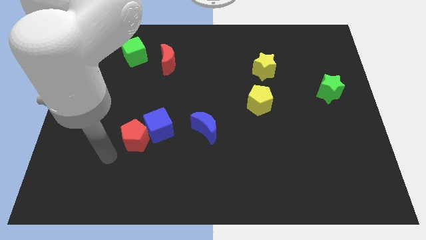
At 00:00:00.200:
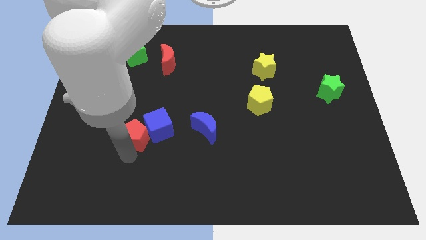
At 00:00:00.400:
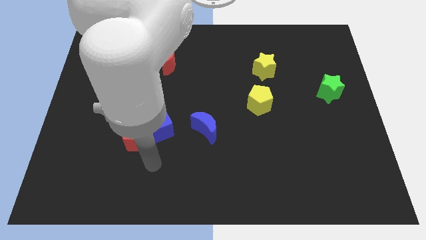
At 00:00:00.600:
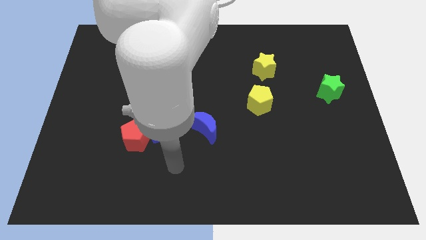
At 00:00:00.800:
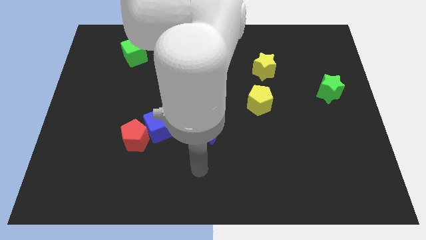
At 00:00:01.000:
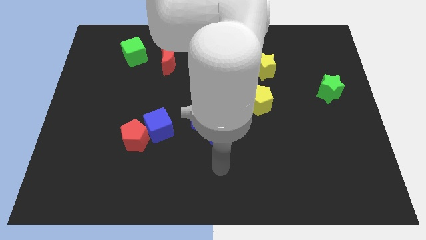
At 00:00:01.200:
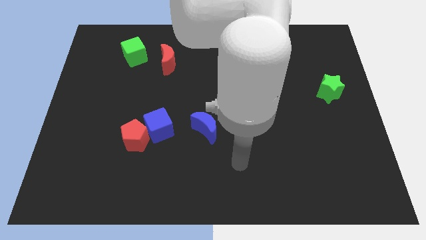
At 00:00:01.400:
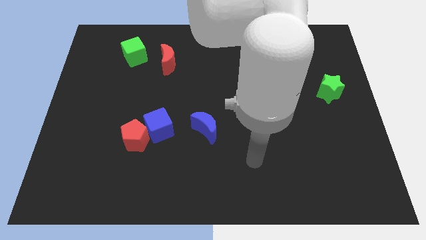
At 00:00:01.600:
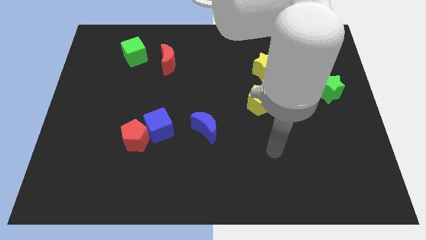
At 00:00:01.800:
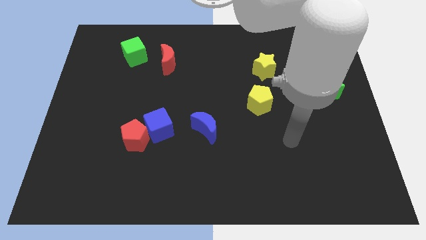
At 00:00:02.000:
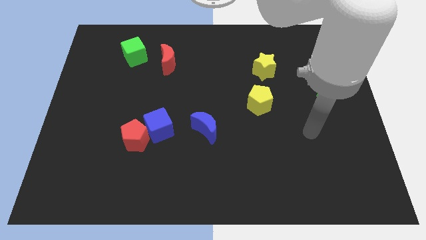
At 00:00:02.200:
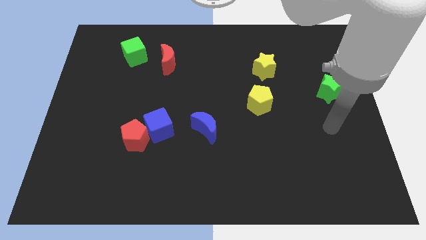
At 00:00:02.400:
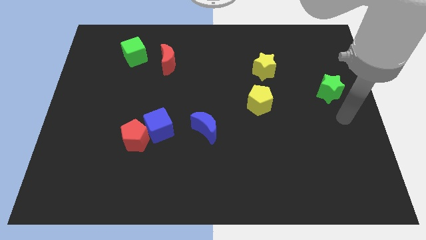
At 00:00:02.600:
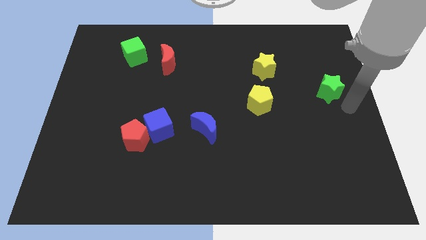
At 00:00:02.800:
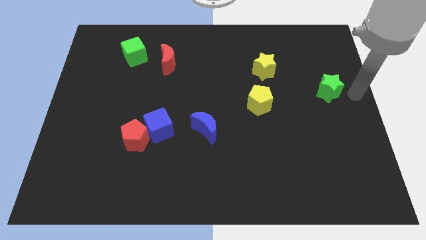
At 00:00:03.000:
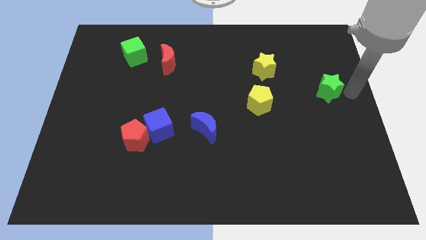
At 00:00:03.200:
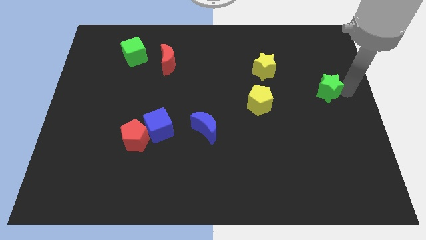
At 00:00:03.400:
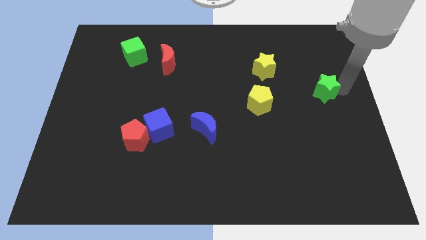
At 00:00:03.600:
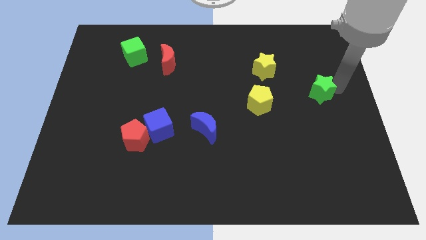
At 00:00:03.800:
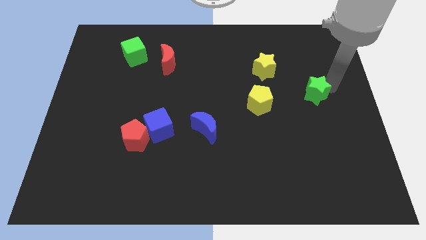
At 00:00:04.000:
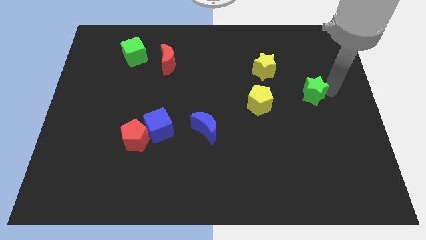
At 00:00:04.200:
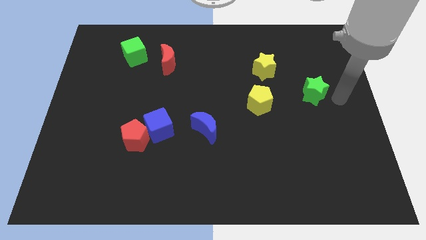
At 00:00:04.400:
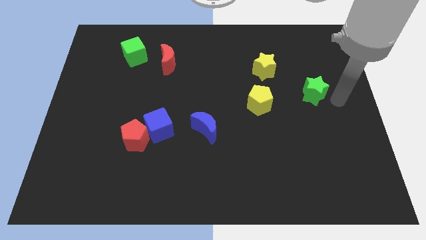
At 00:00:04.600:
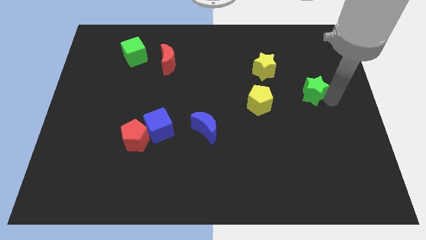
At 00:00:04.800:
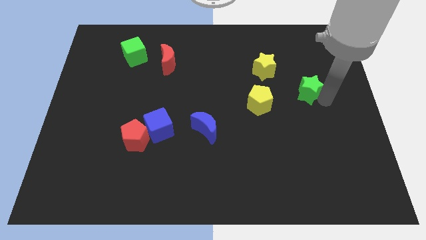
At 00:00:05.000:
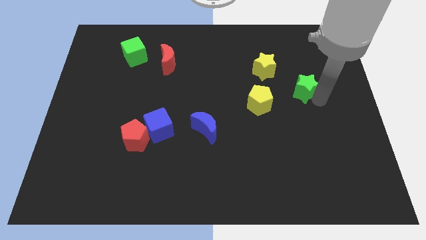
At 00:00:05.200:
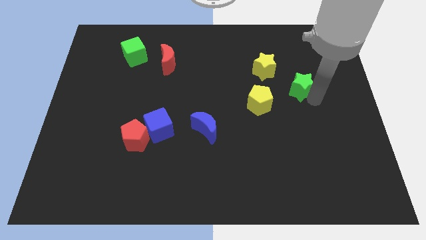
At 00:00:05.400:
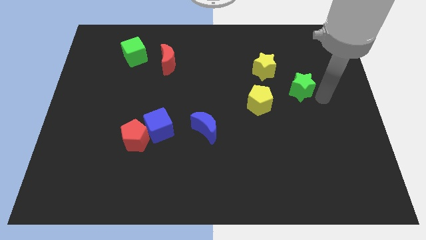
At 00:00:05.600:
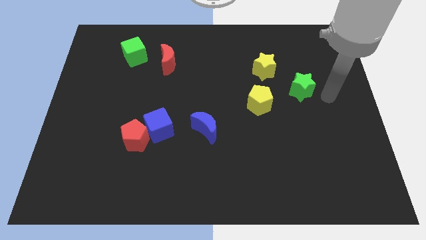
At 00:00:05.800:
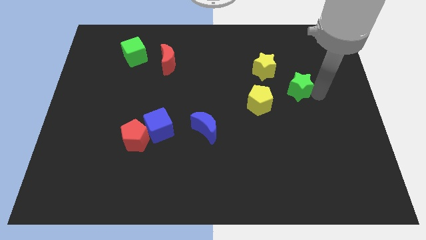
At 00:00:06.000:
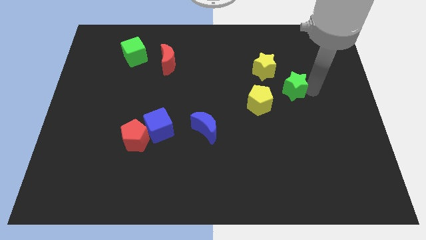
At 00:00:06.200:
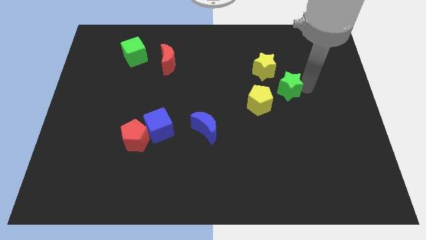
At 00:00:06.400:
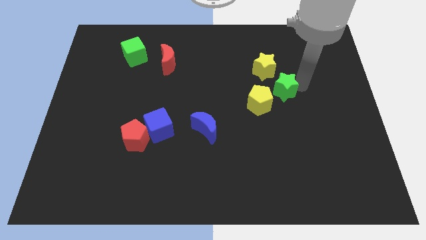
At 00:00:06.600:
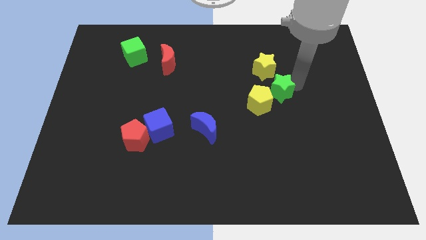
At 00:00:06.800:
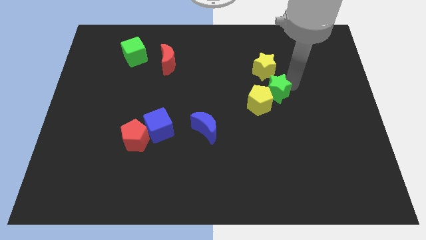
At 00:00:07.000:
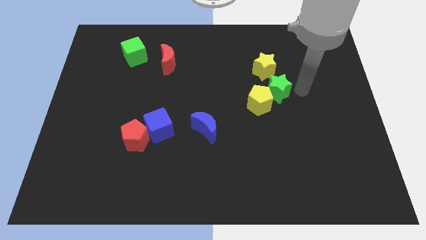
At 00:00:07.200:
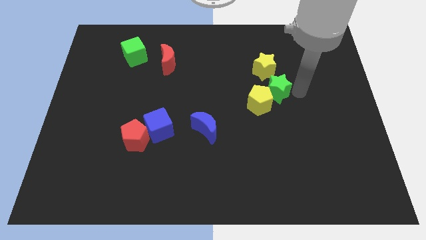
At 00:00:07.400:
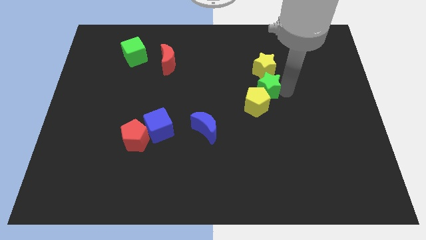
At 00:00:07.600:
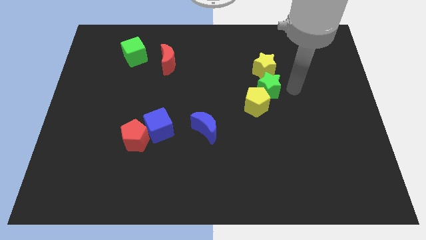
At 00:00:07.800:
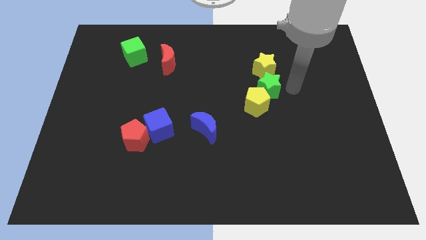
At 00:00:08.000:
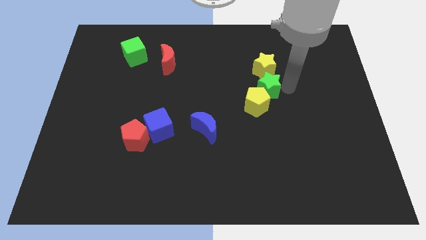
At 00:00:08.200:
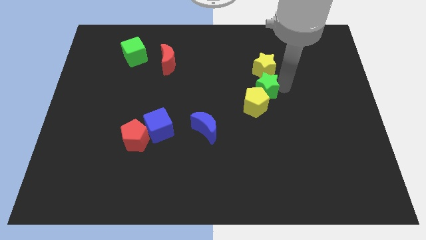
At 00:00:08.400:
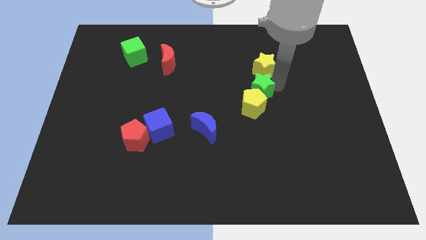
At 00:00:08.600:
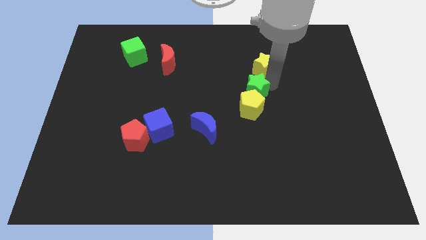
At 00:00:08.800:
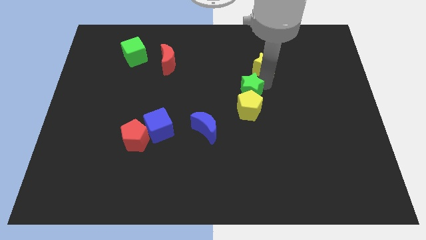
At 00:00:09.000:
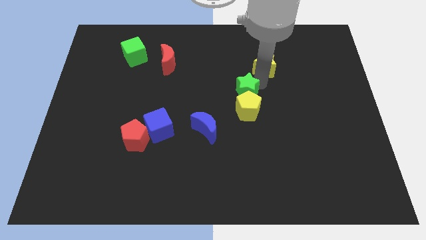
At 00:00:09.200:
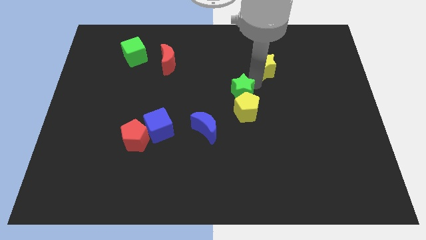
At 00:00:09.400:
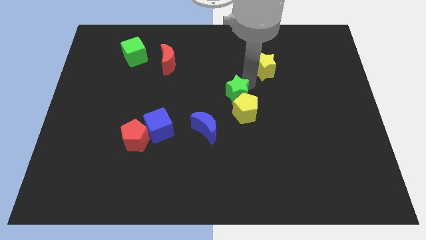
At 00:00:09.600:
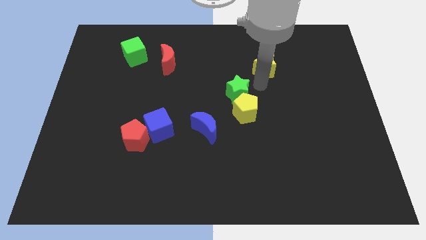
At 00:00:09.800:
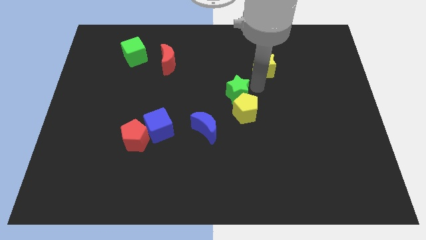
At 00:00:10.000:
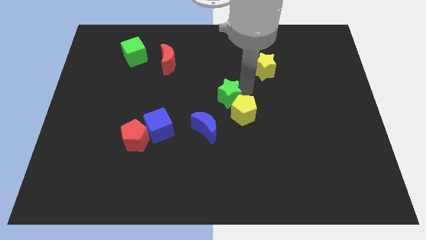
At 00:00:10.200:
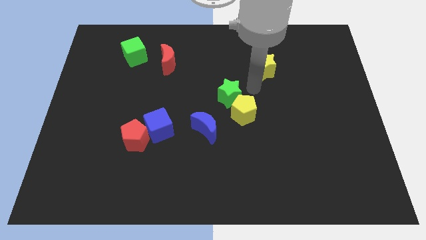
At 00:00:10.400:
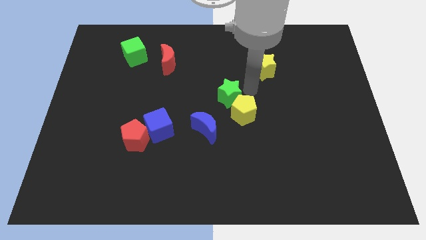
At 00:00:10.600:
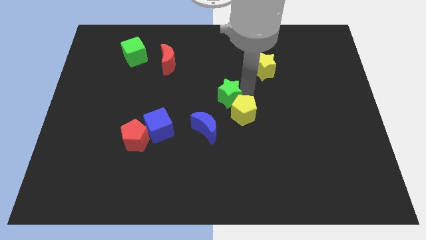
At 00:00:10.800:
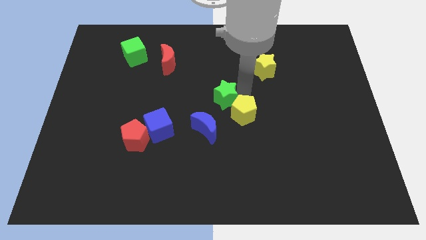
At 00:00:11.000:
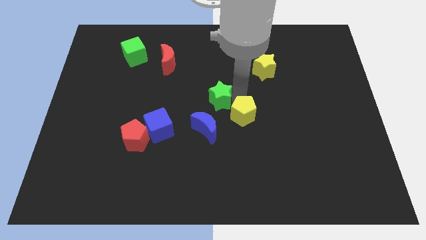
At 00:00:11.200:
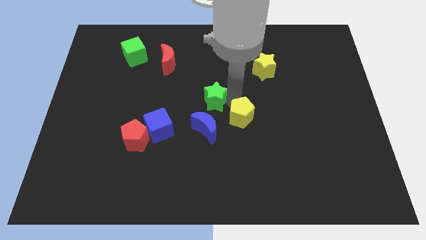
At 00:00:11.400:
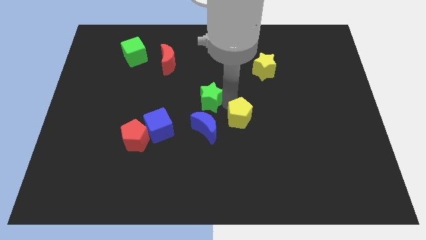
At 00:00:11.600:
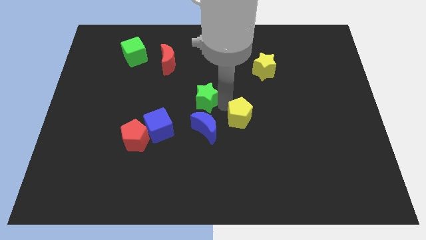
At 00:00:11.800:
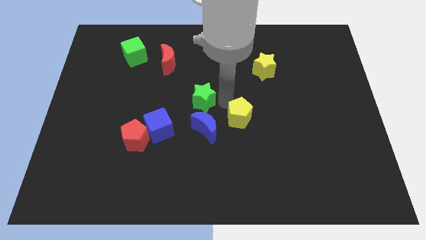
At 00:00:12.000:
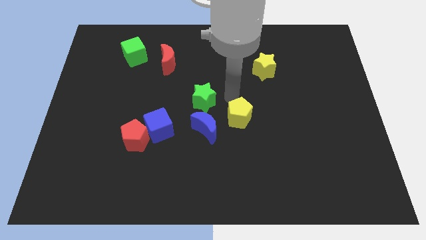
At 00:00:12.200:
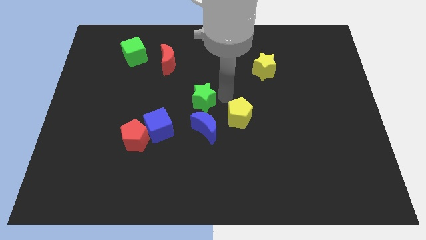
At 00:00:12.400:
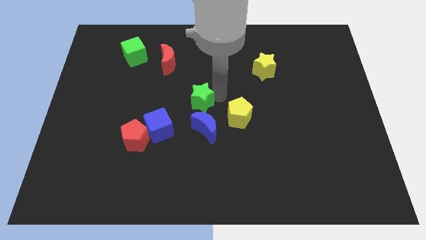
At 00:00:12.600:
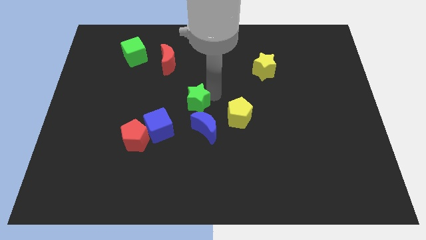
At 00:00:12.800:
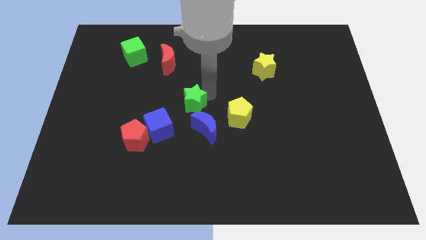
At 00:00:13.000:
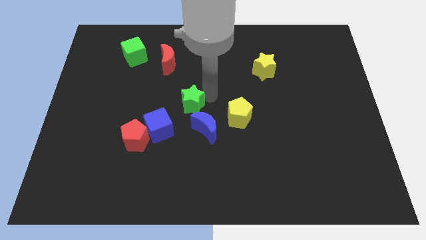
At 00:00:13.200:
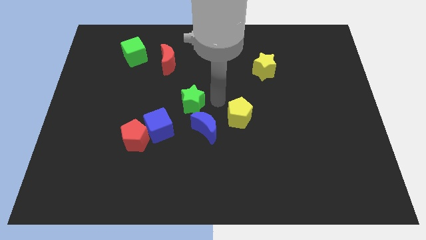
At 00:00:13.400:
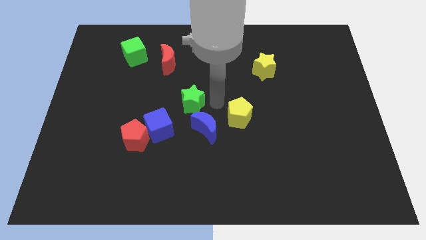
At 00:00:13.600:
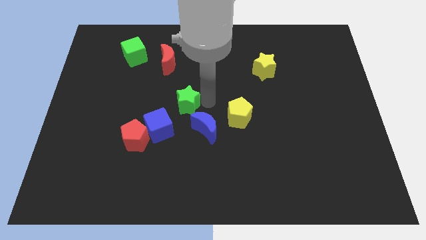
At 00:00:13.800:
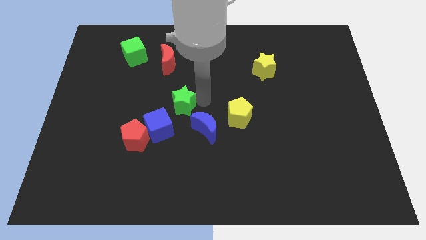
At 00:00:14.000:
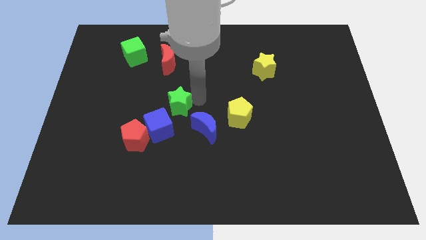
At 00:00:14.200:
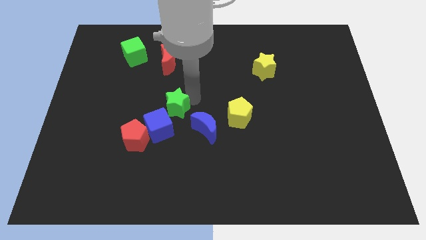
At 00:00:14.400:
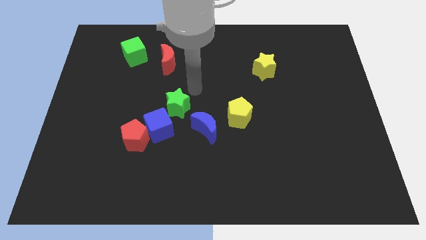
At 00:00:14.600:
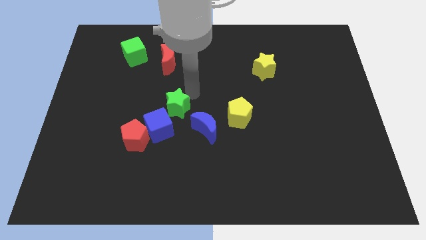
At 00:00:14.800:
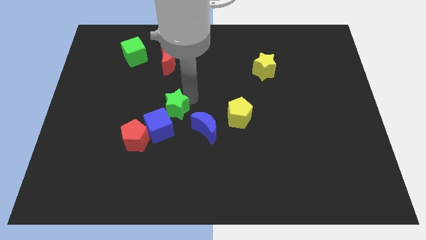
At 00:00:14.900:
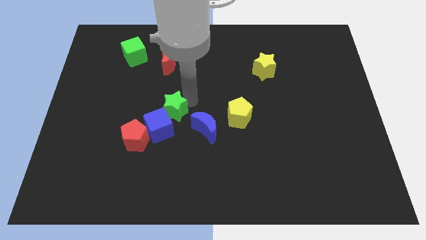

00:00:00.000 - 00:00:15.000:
push the green star to the blue cube
